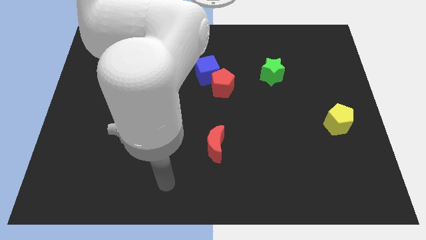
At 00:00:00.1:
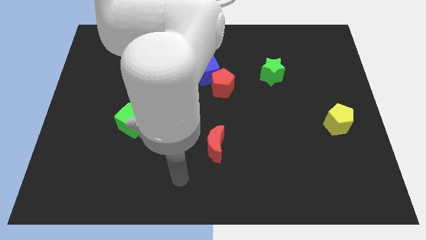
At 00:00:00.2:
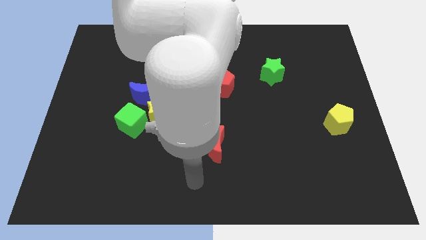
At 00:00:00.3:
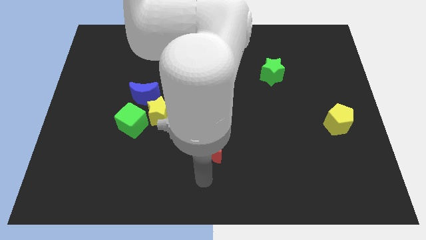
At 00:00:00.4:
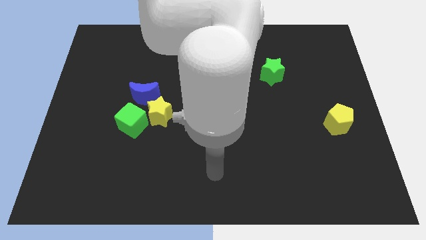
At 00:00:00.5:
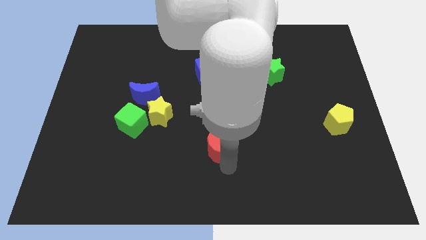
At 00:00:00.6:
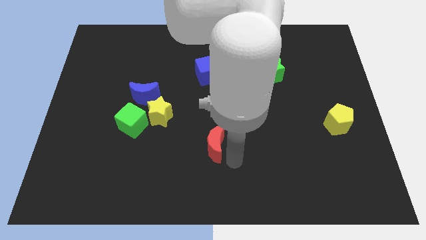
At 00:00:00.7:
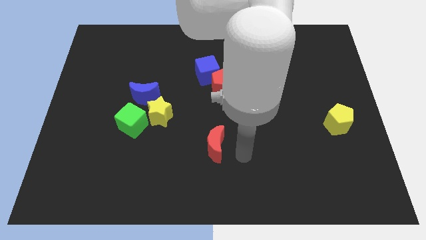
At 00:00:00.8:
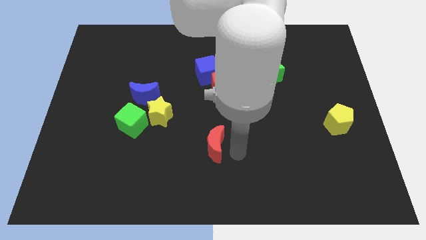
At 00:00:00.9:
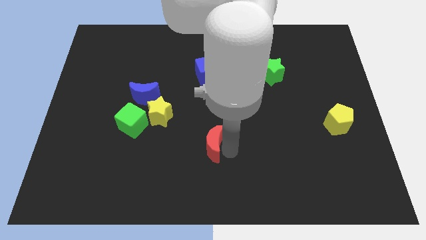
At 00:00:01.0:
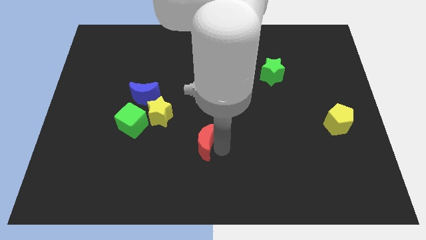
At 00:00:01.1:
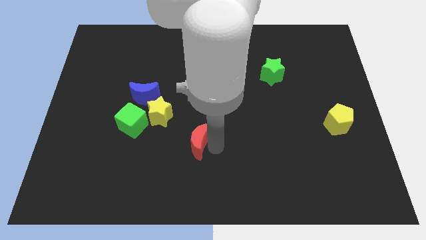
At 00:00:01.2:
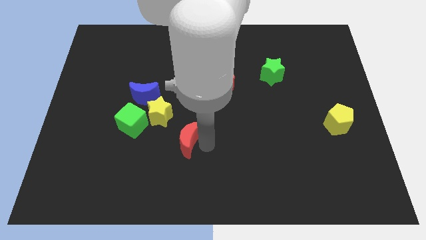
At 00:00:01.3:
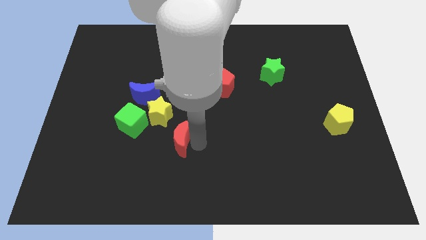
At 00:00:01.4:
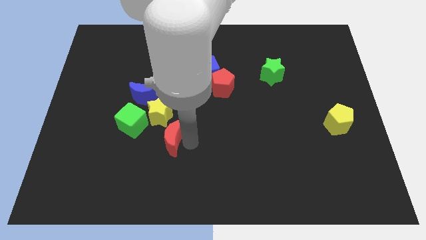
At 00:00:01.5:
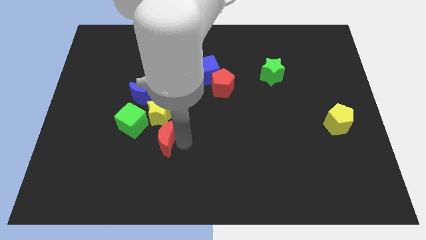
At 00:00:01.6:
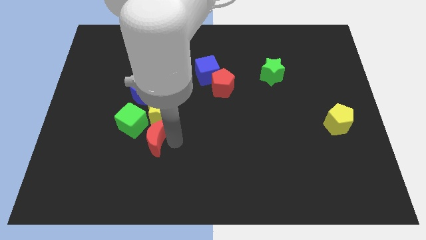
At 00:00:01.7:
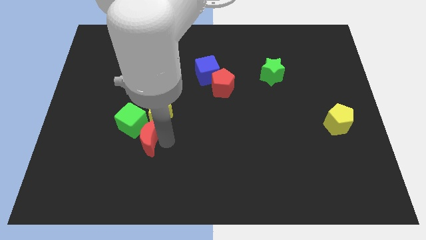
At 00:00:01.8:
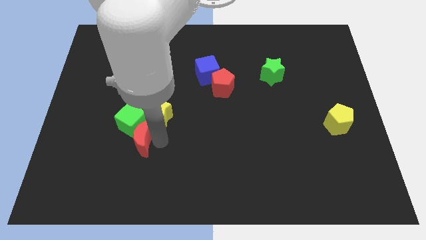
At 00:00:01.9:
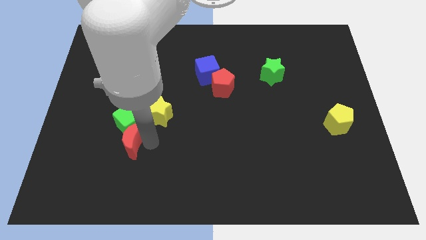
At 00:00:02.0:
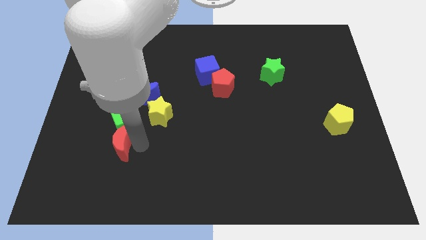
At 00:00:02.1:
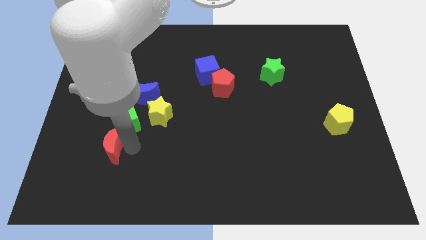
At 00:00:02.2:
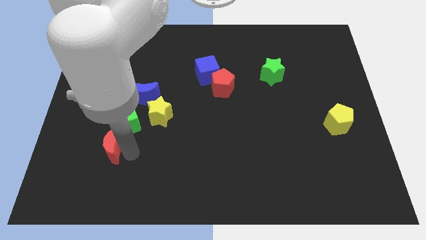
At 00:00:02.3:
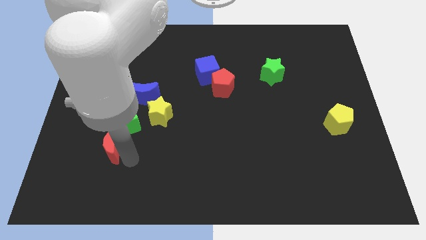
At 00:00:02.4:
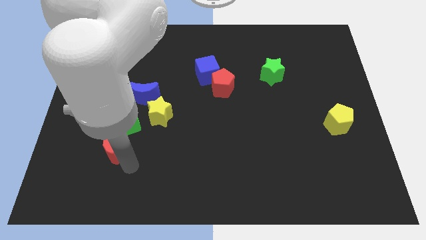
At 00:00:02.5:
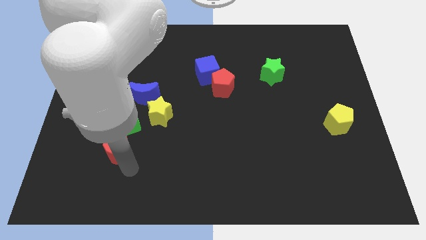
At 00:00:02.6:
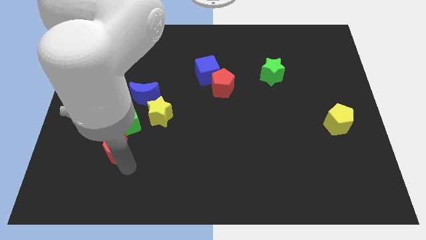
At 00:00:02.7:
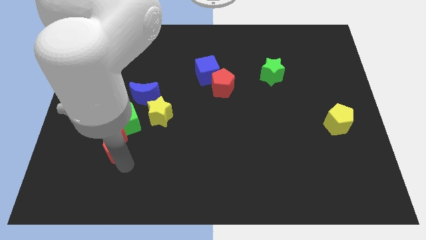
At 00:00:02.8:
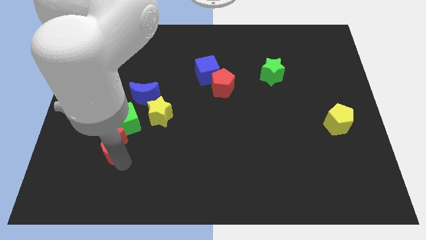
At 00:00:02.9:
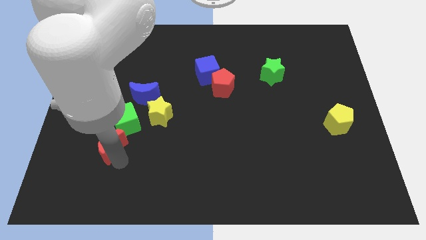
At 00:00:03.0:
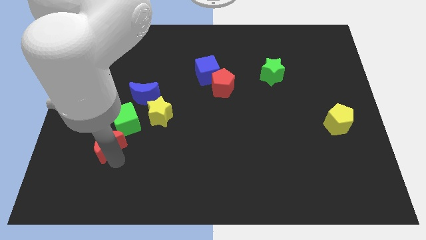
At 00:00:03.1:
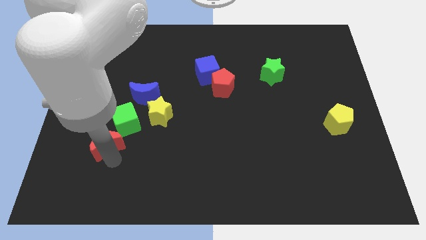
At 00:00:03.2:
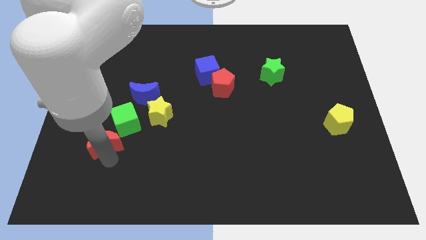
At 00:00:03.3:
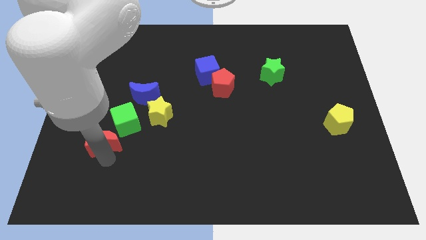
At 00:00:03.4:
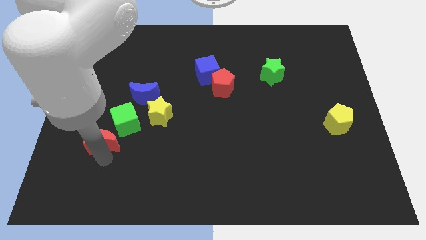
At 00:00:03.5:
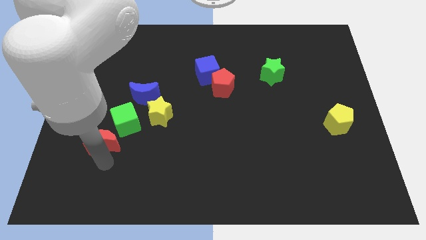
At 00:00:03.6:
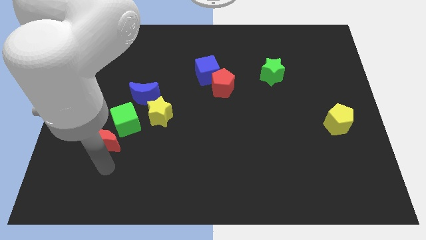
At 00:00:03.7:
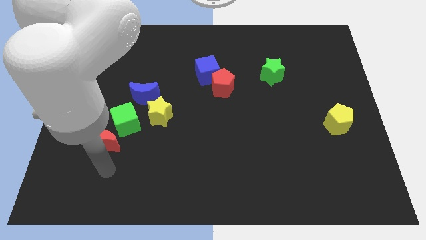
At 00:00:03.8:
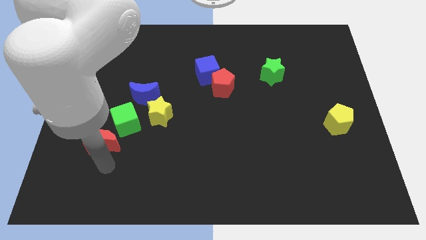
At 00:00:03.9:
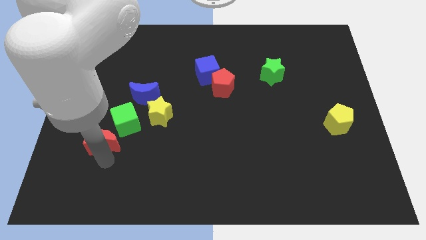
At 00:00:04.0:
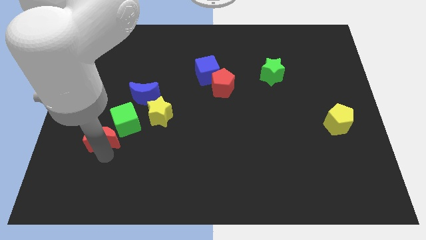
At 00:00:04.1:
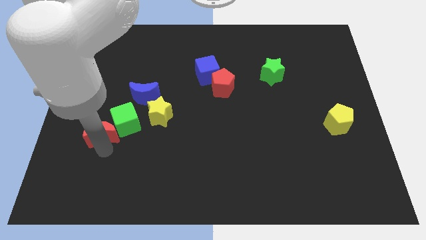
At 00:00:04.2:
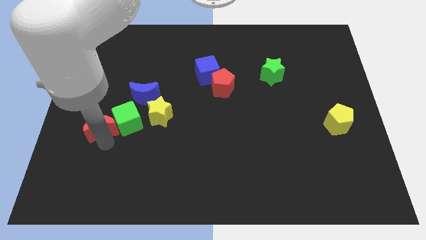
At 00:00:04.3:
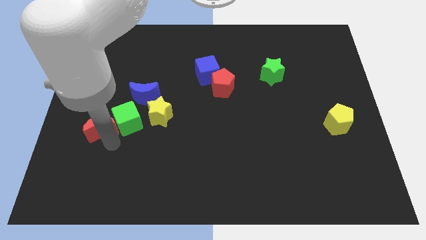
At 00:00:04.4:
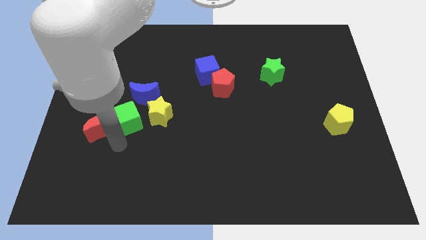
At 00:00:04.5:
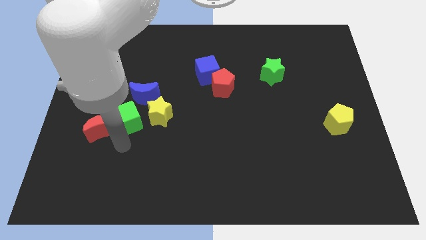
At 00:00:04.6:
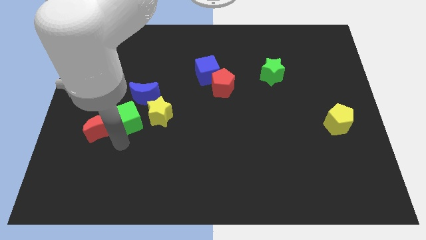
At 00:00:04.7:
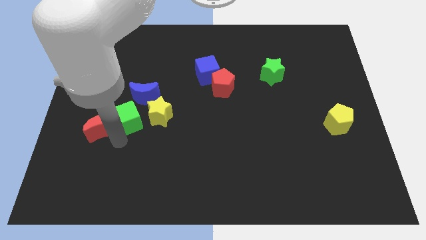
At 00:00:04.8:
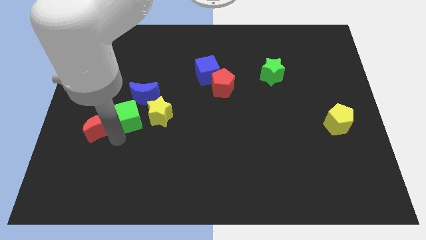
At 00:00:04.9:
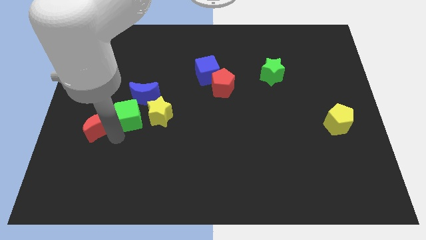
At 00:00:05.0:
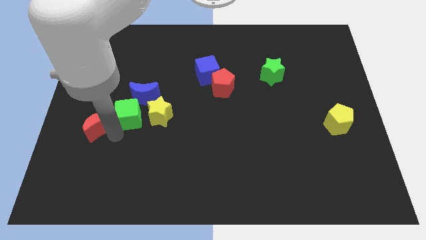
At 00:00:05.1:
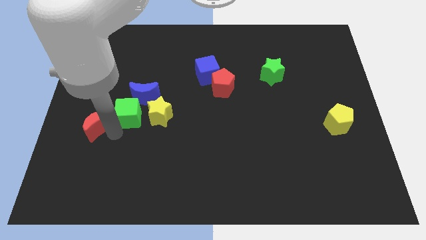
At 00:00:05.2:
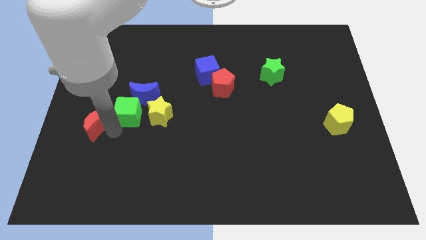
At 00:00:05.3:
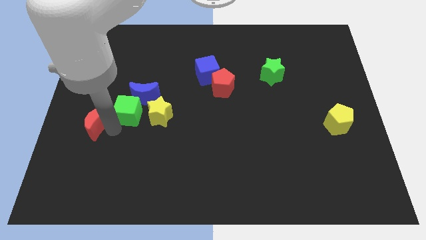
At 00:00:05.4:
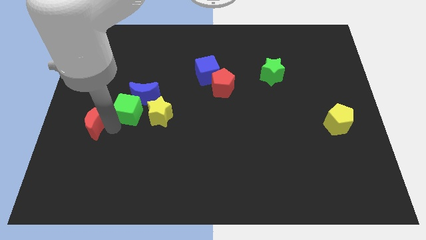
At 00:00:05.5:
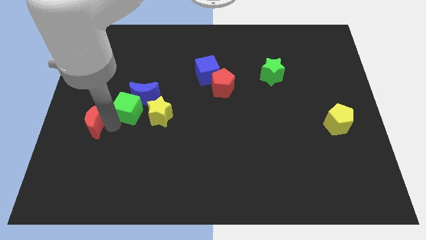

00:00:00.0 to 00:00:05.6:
put the red moon to the center left

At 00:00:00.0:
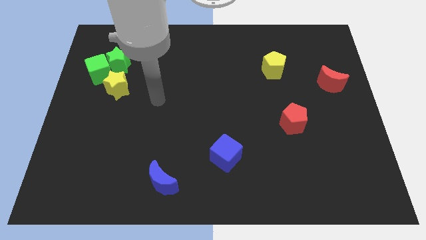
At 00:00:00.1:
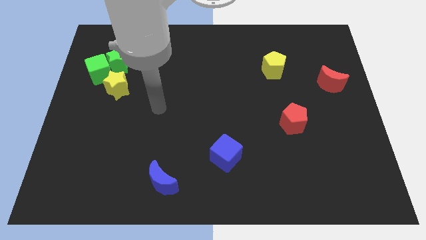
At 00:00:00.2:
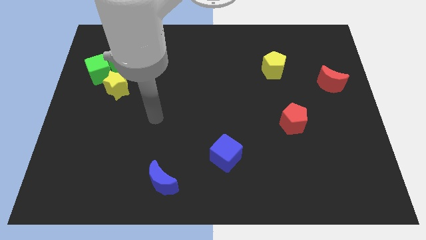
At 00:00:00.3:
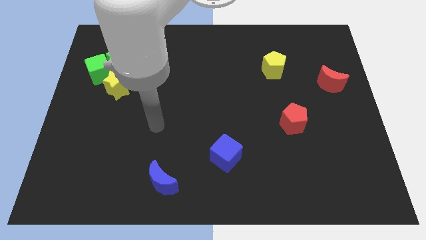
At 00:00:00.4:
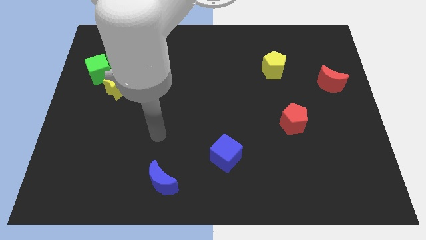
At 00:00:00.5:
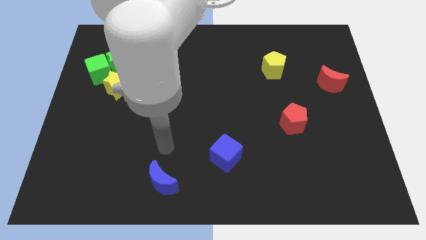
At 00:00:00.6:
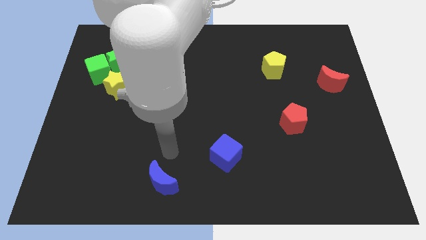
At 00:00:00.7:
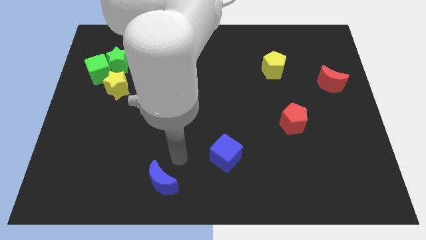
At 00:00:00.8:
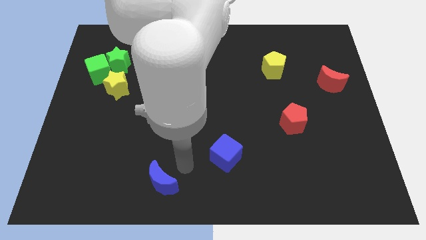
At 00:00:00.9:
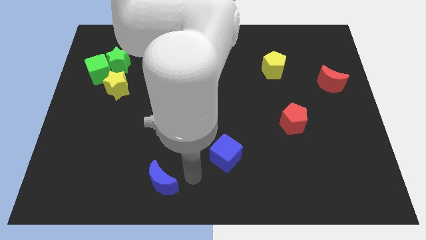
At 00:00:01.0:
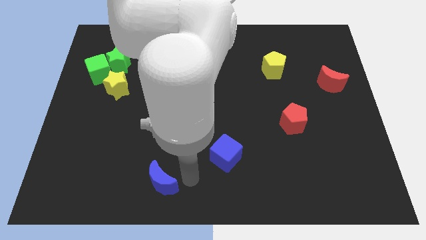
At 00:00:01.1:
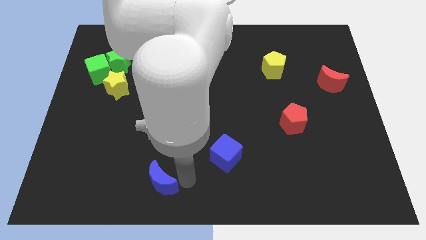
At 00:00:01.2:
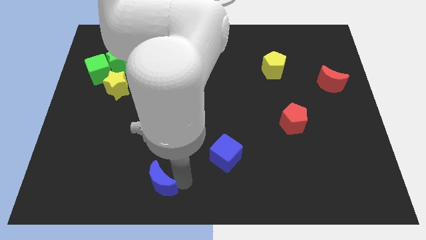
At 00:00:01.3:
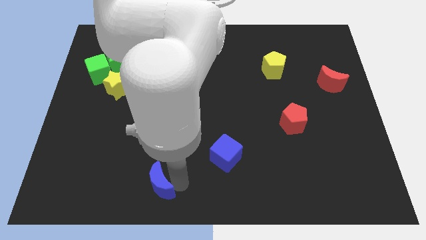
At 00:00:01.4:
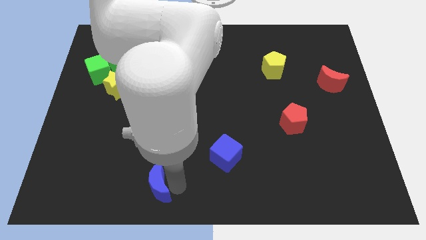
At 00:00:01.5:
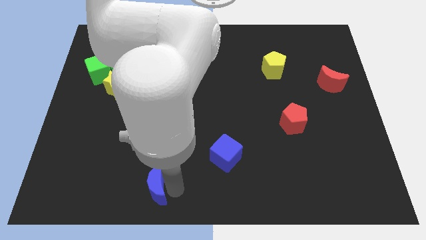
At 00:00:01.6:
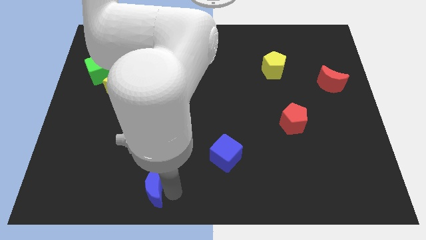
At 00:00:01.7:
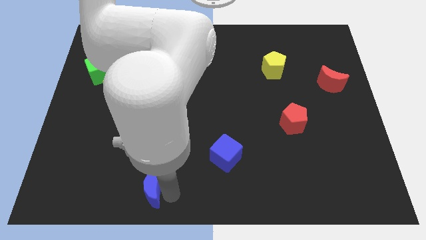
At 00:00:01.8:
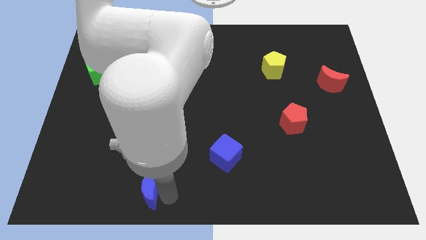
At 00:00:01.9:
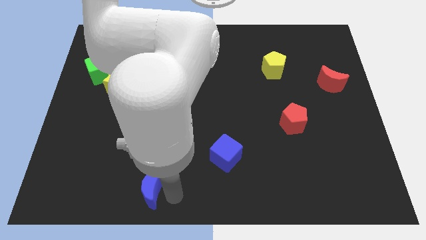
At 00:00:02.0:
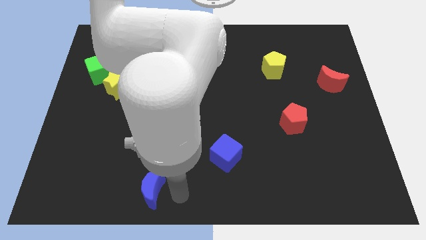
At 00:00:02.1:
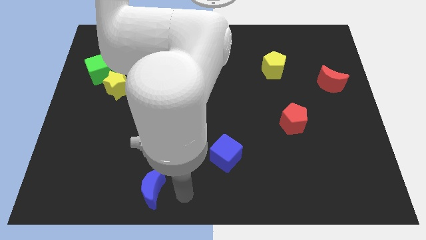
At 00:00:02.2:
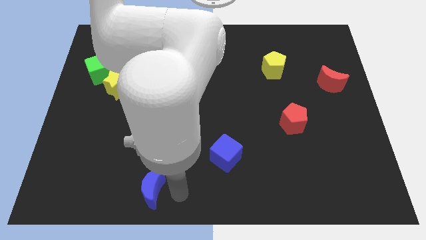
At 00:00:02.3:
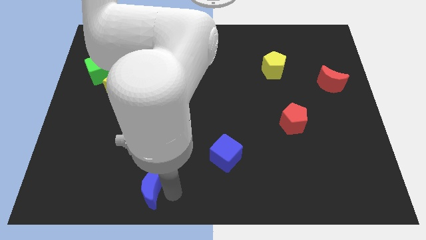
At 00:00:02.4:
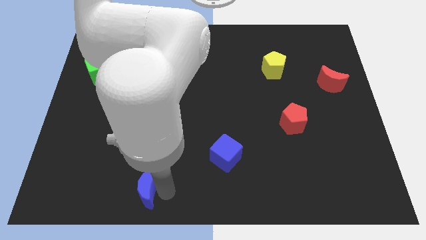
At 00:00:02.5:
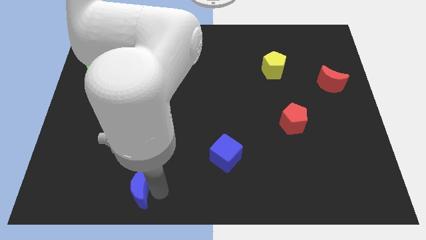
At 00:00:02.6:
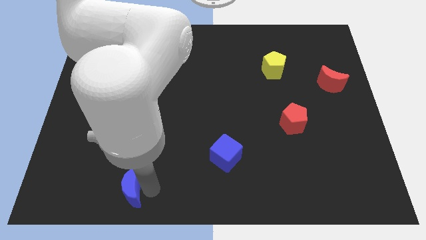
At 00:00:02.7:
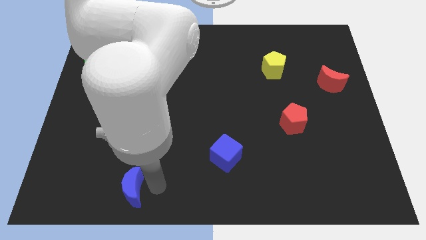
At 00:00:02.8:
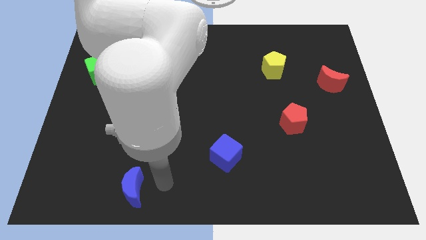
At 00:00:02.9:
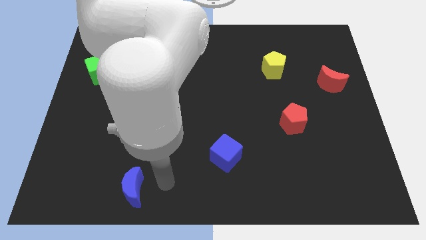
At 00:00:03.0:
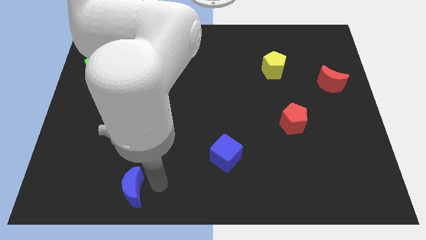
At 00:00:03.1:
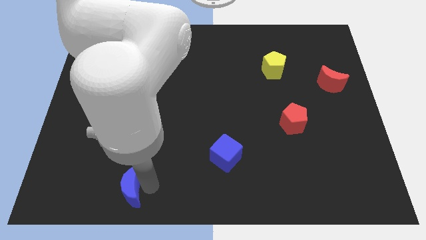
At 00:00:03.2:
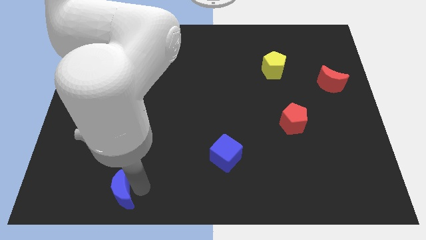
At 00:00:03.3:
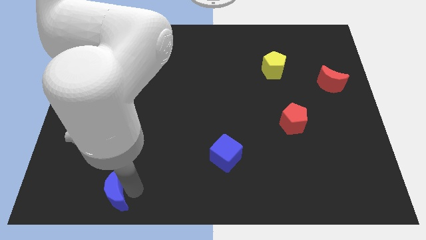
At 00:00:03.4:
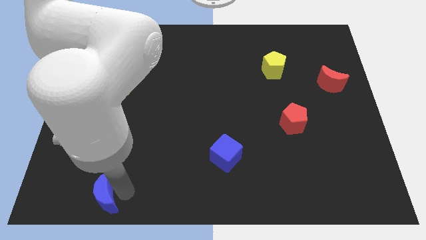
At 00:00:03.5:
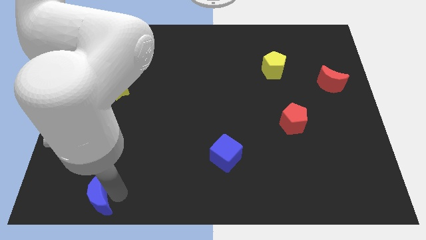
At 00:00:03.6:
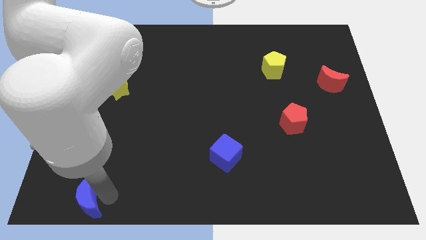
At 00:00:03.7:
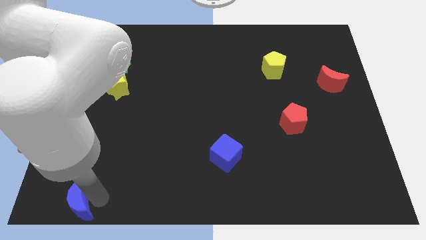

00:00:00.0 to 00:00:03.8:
push the blue moon to the bottom left of the board
